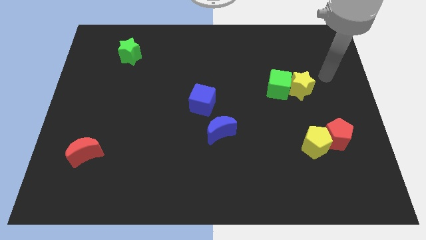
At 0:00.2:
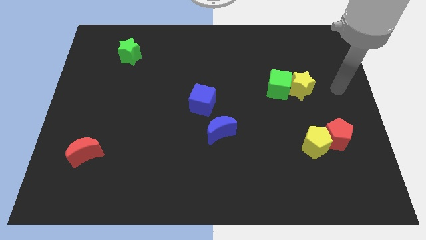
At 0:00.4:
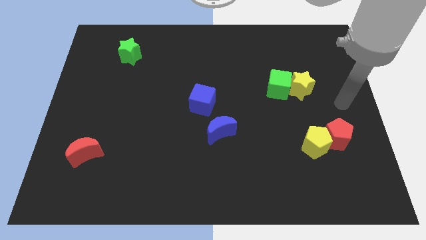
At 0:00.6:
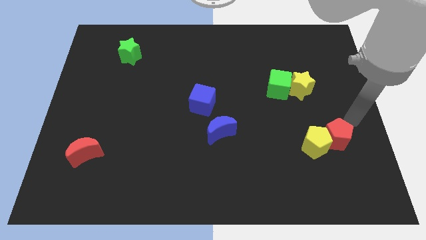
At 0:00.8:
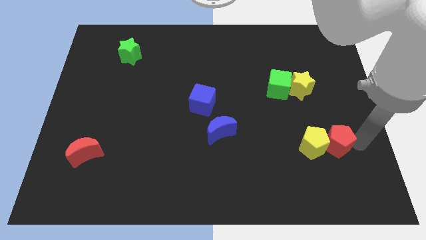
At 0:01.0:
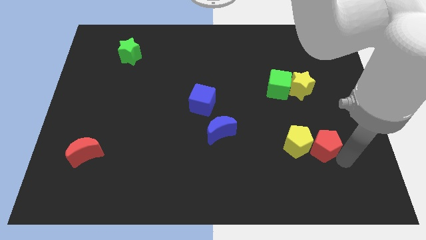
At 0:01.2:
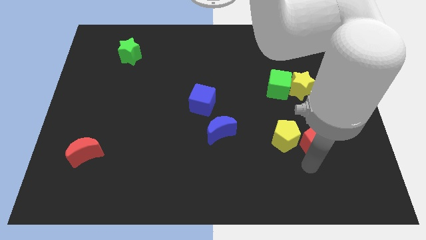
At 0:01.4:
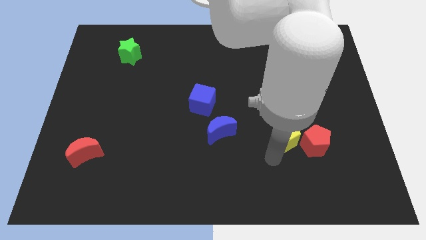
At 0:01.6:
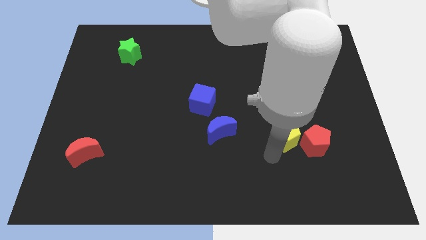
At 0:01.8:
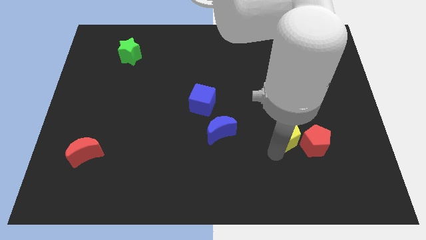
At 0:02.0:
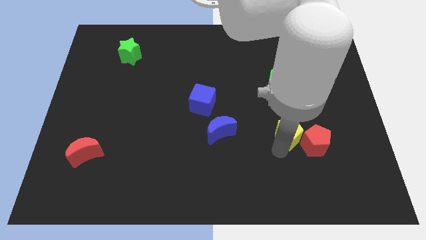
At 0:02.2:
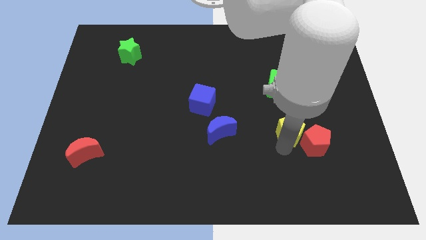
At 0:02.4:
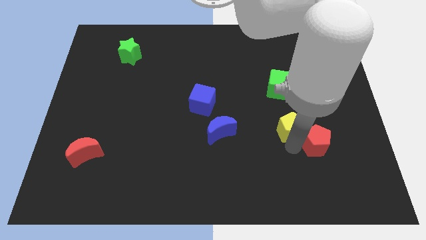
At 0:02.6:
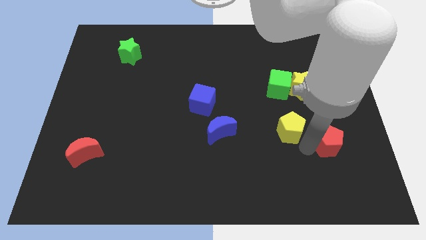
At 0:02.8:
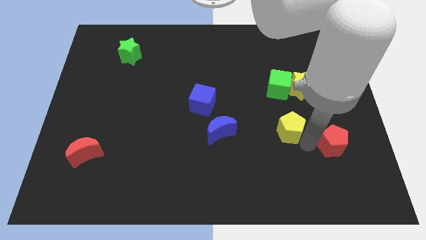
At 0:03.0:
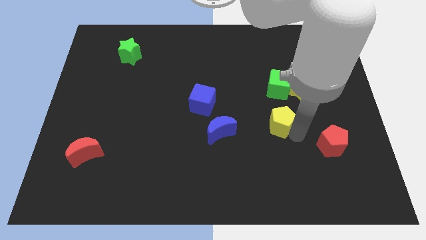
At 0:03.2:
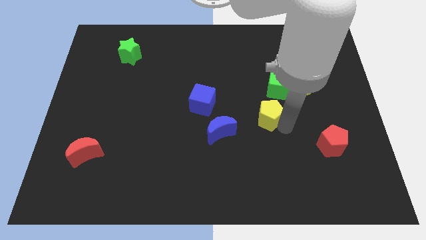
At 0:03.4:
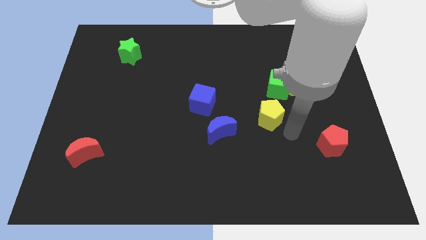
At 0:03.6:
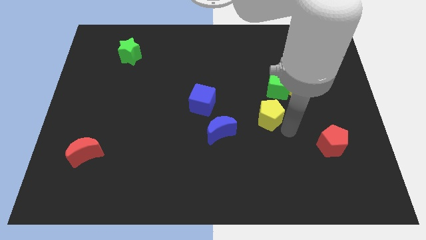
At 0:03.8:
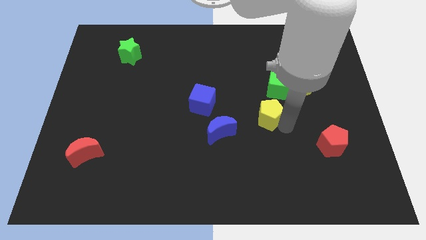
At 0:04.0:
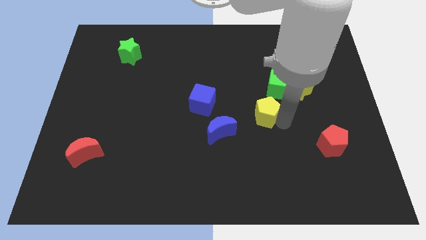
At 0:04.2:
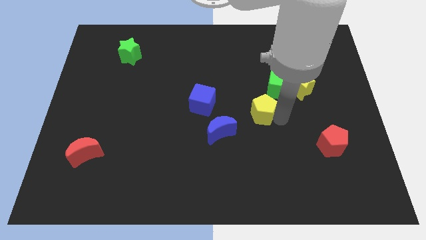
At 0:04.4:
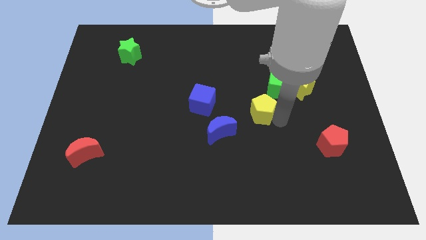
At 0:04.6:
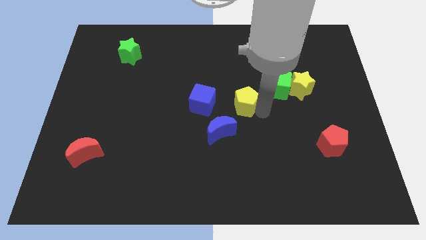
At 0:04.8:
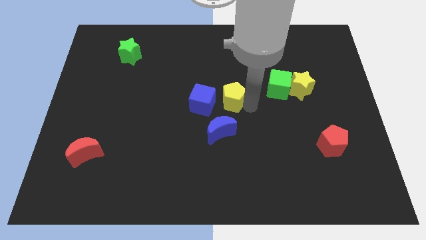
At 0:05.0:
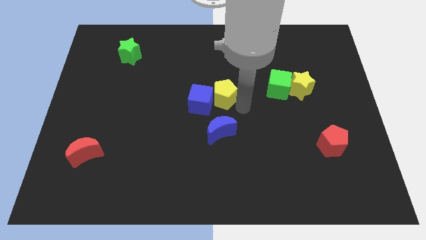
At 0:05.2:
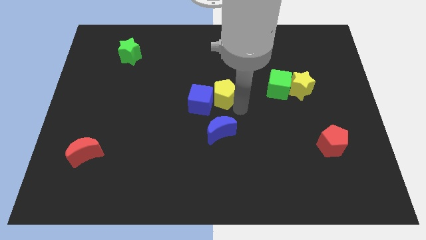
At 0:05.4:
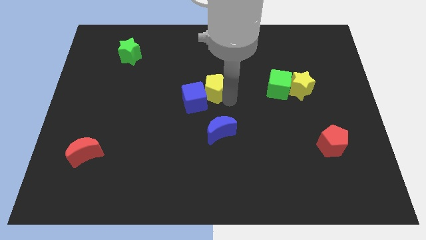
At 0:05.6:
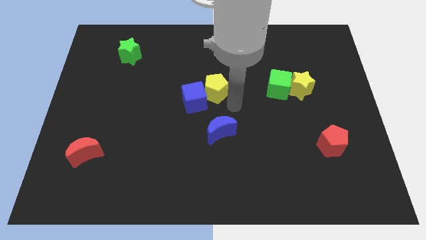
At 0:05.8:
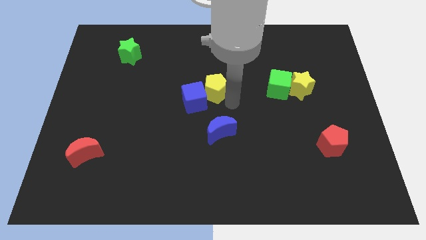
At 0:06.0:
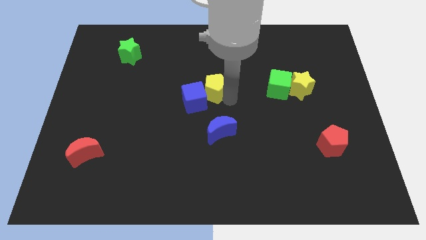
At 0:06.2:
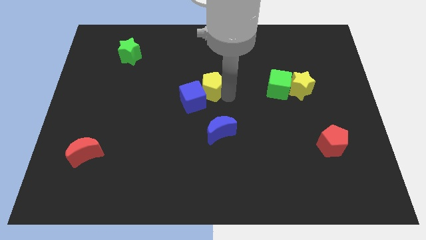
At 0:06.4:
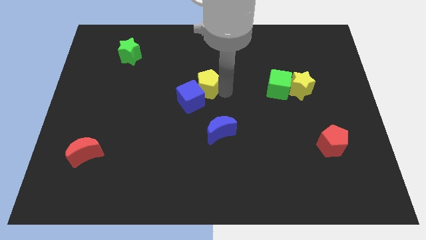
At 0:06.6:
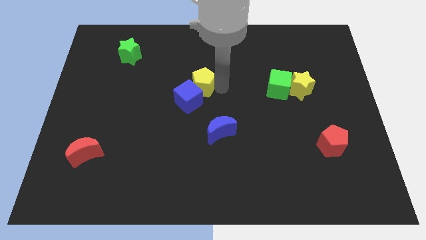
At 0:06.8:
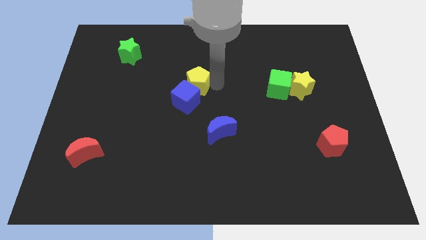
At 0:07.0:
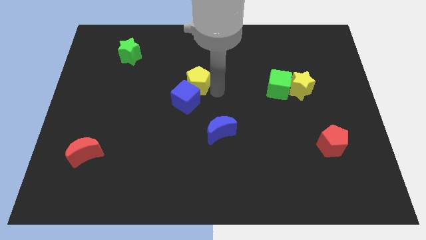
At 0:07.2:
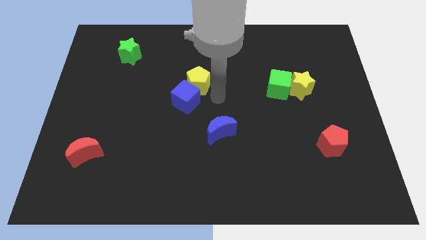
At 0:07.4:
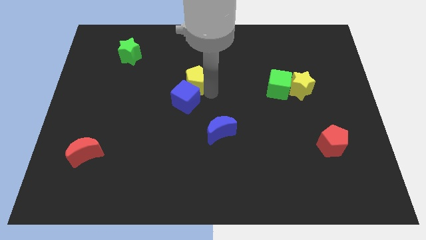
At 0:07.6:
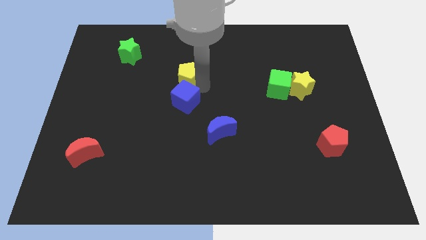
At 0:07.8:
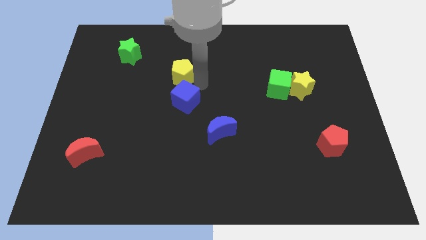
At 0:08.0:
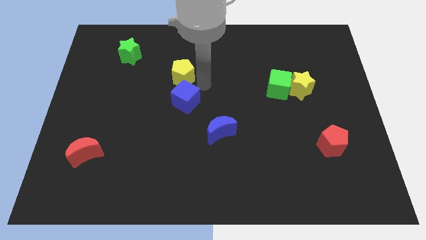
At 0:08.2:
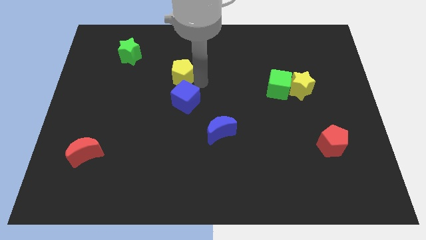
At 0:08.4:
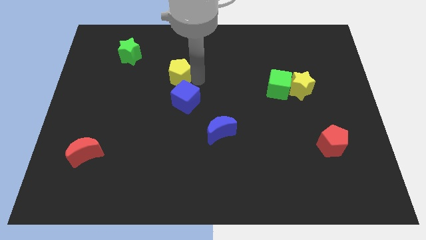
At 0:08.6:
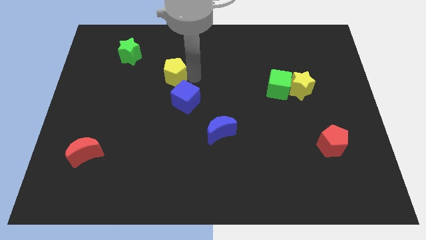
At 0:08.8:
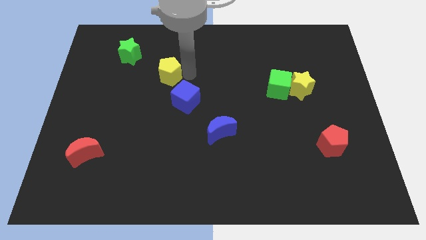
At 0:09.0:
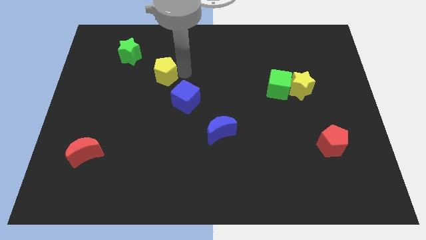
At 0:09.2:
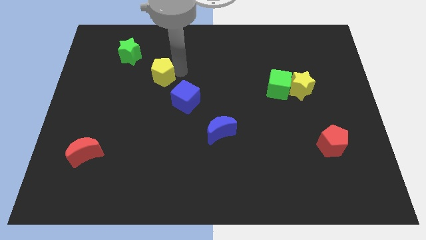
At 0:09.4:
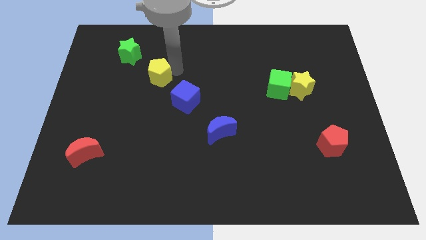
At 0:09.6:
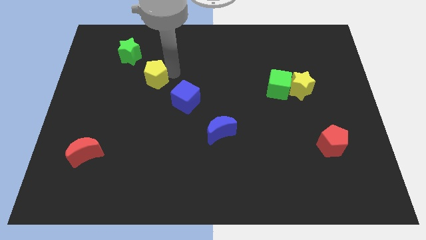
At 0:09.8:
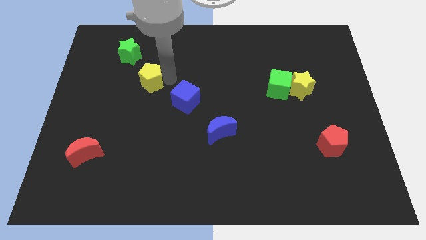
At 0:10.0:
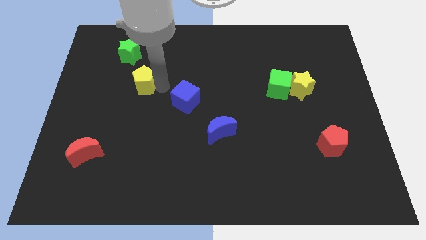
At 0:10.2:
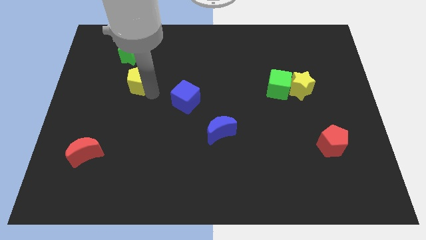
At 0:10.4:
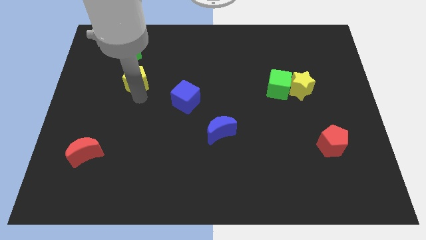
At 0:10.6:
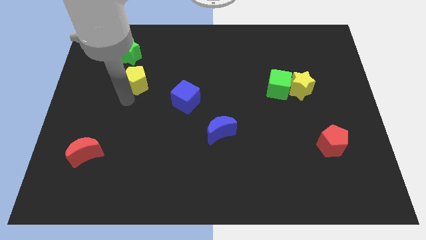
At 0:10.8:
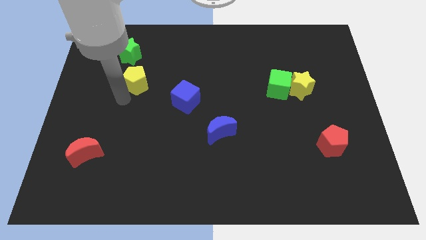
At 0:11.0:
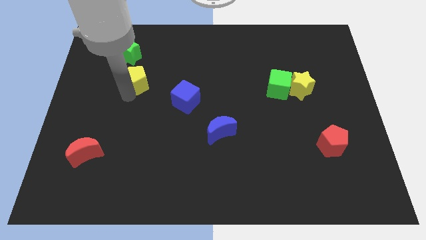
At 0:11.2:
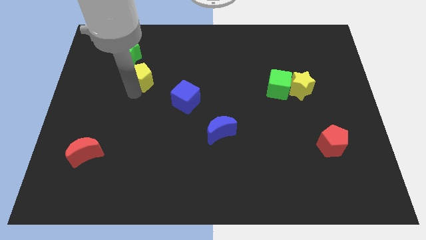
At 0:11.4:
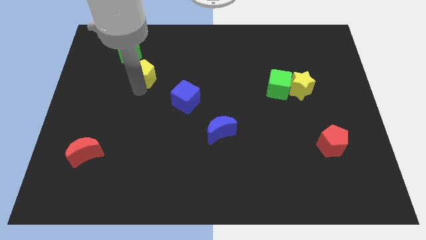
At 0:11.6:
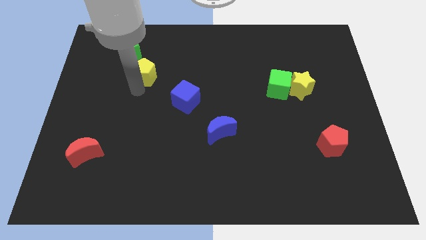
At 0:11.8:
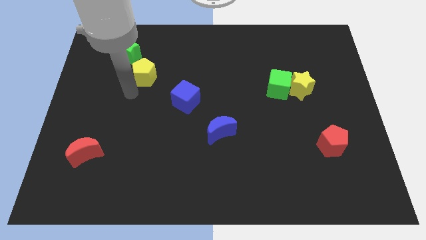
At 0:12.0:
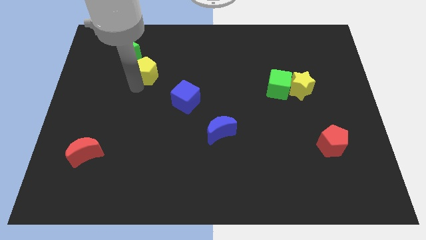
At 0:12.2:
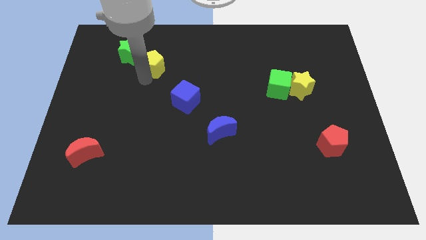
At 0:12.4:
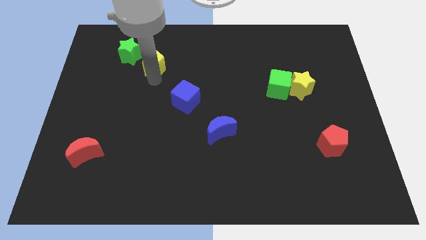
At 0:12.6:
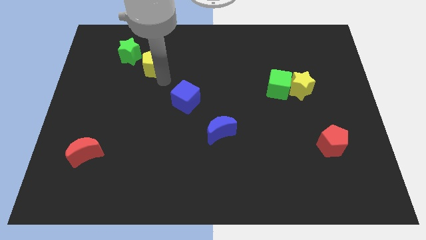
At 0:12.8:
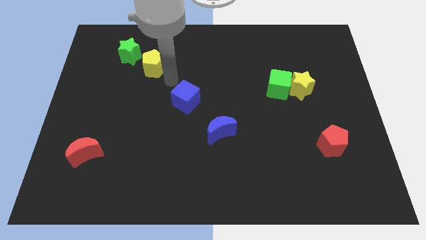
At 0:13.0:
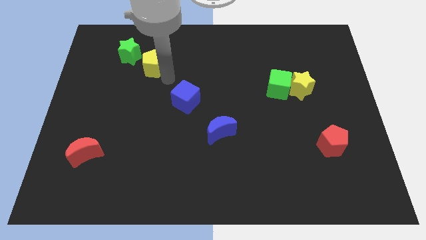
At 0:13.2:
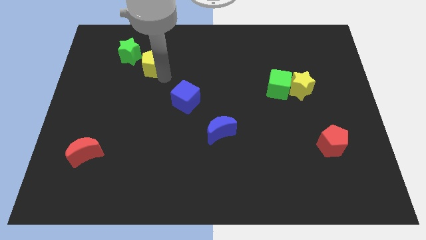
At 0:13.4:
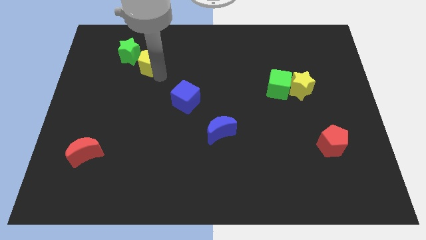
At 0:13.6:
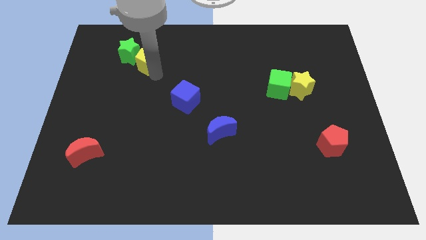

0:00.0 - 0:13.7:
put the yellow pentagon to the green star

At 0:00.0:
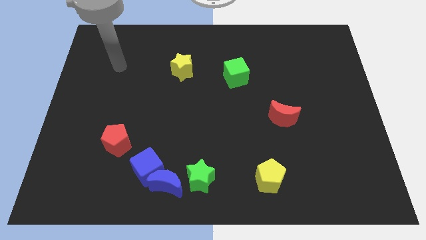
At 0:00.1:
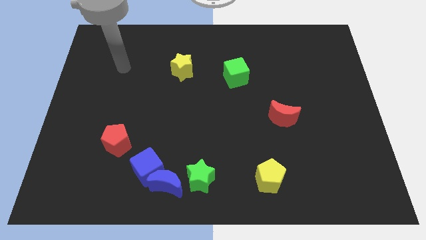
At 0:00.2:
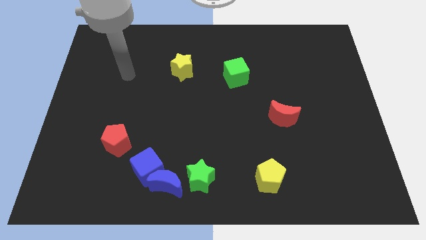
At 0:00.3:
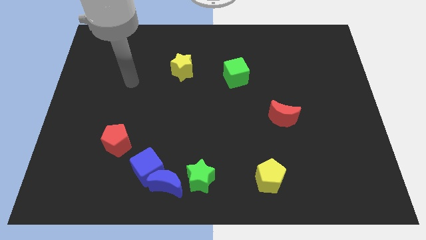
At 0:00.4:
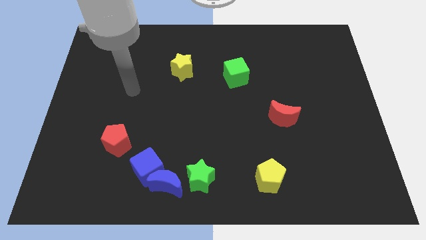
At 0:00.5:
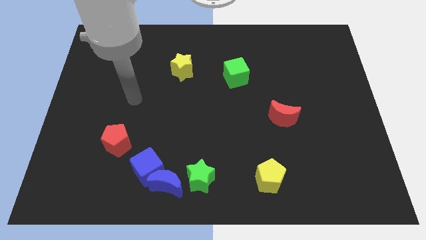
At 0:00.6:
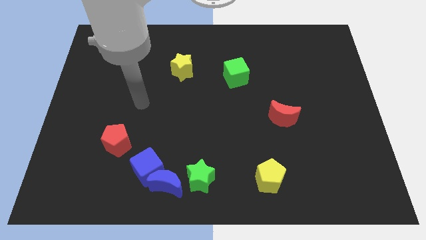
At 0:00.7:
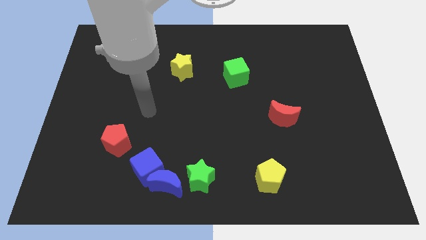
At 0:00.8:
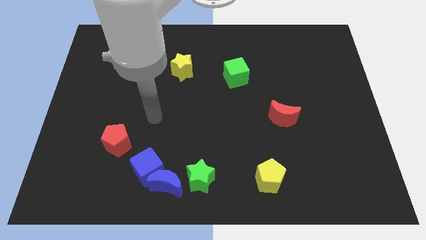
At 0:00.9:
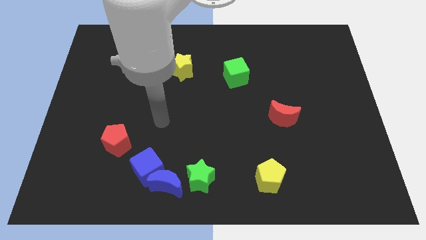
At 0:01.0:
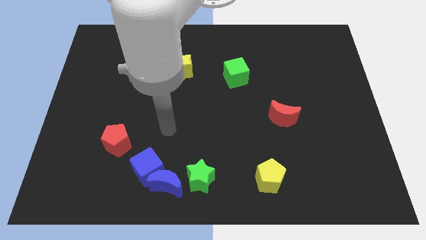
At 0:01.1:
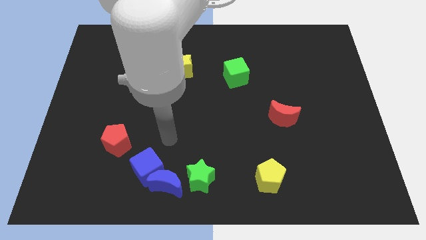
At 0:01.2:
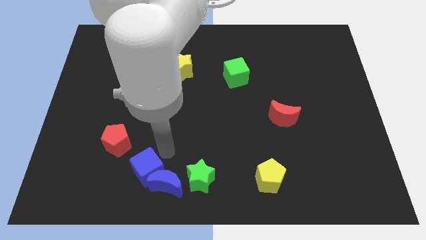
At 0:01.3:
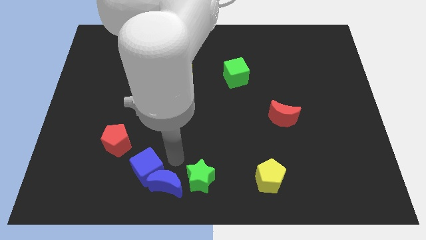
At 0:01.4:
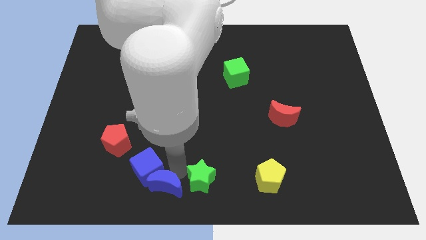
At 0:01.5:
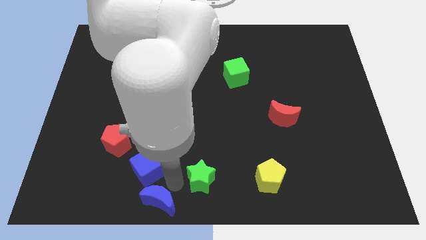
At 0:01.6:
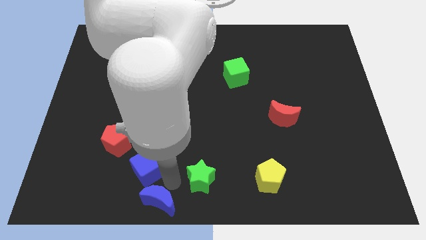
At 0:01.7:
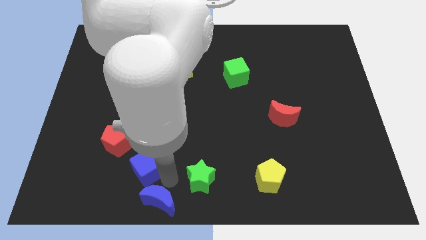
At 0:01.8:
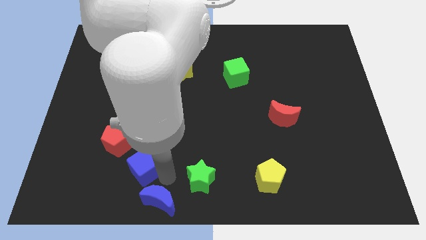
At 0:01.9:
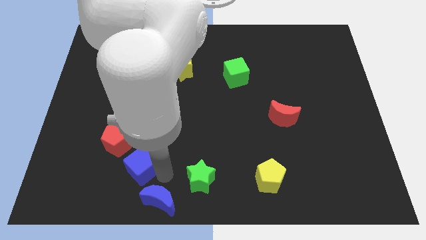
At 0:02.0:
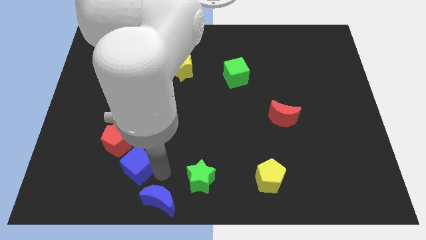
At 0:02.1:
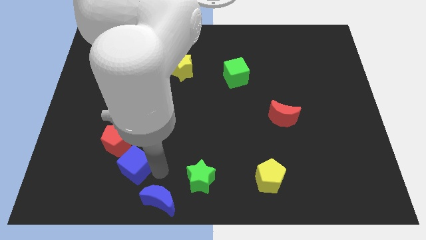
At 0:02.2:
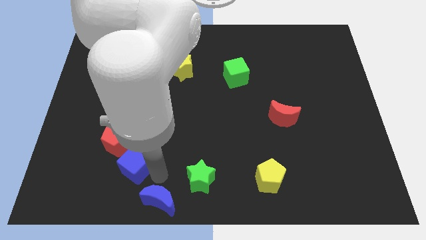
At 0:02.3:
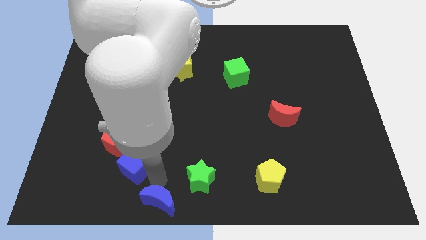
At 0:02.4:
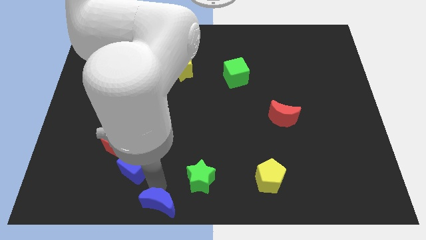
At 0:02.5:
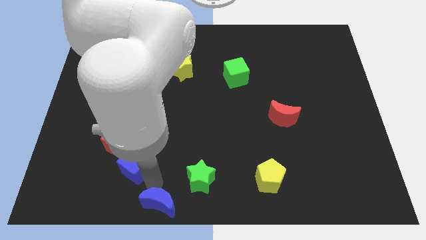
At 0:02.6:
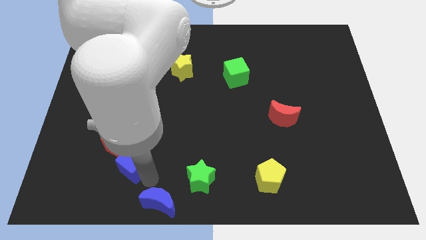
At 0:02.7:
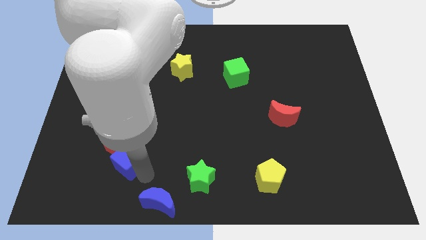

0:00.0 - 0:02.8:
put the blue cube to the red pentagon
